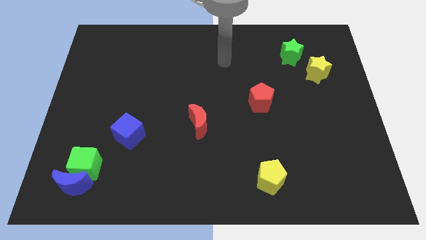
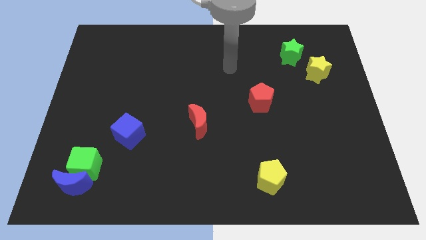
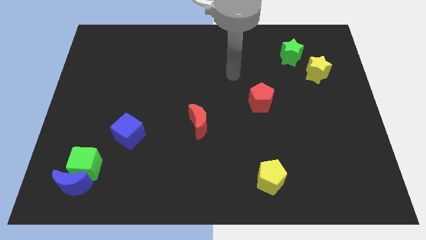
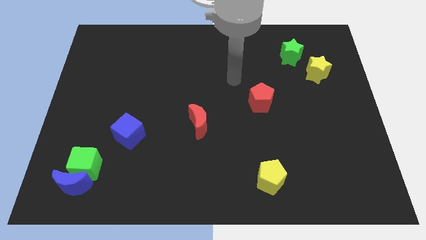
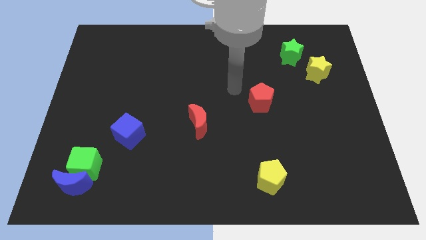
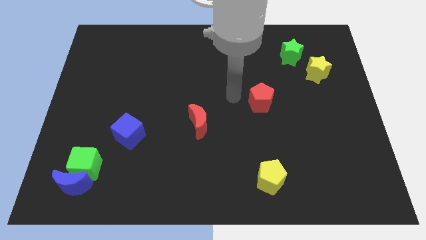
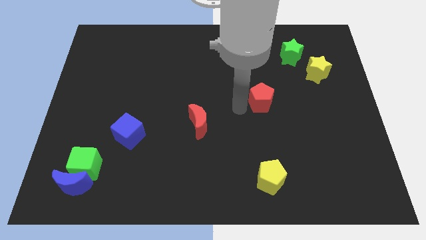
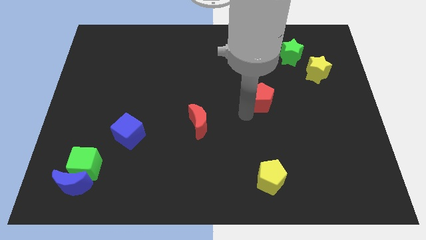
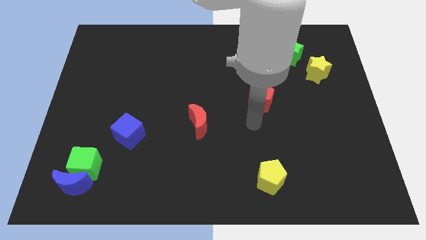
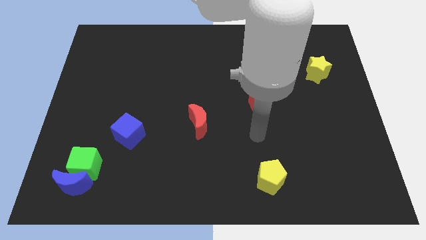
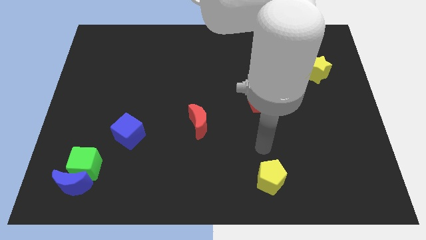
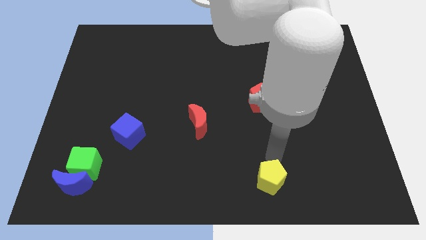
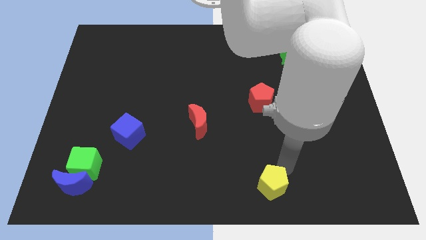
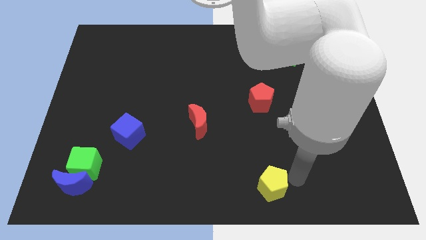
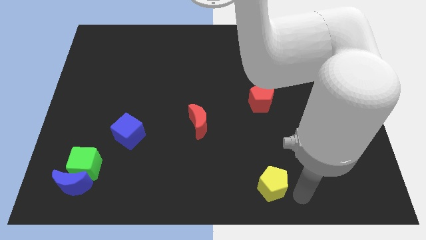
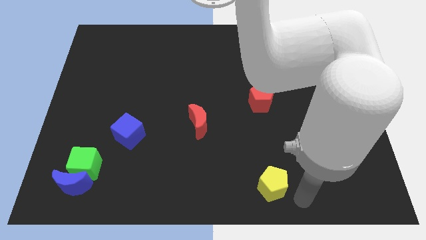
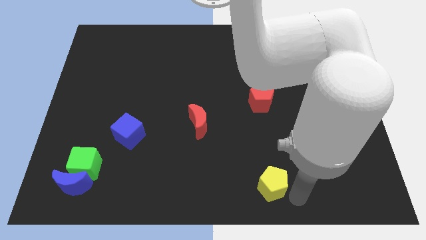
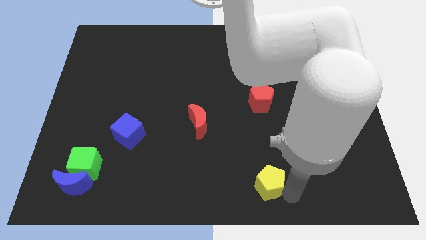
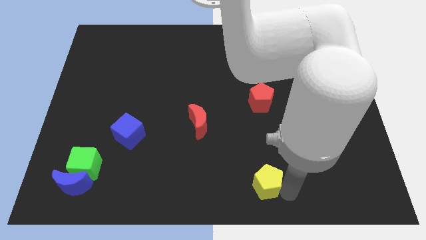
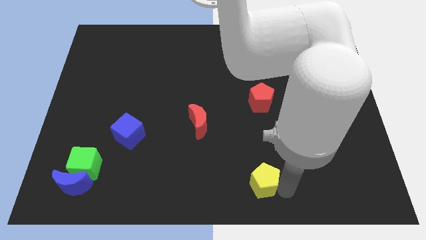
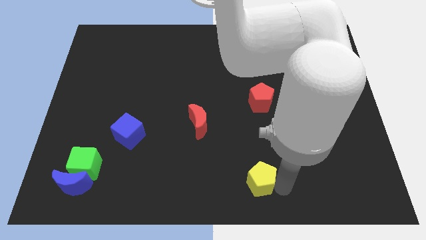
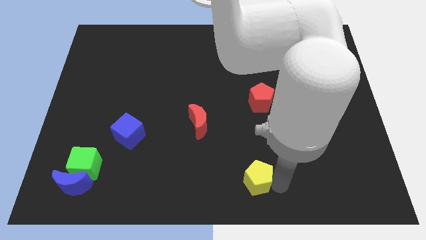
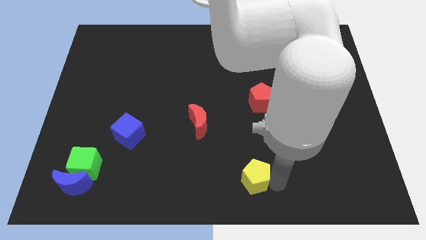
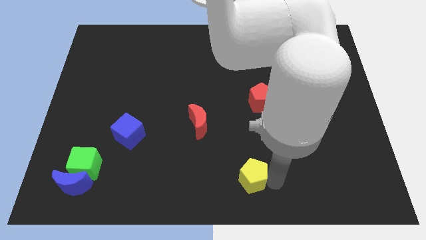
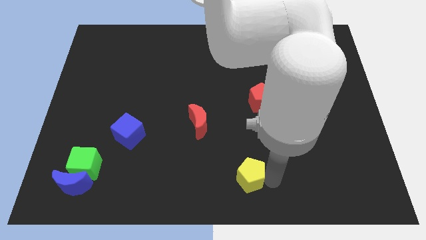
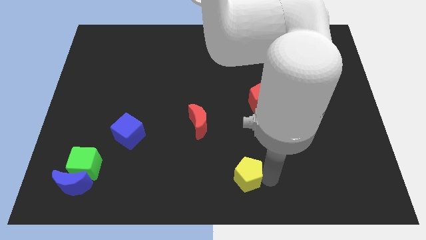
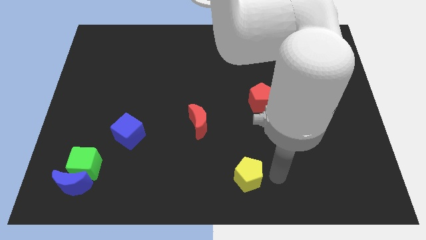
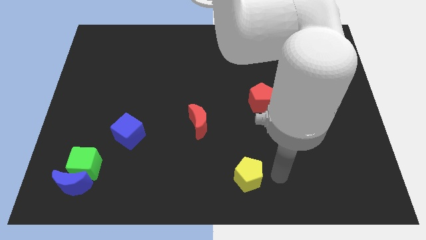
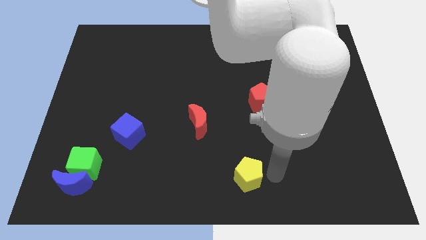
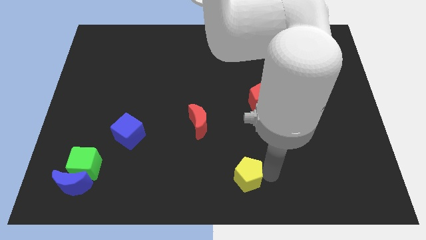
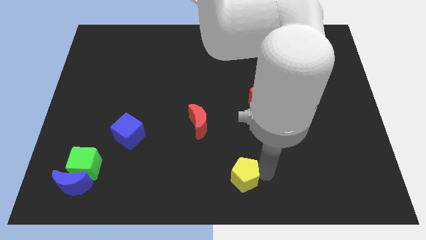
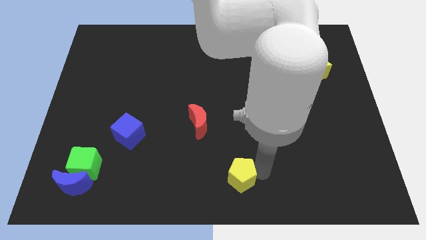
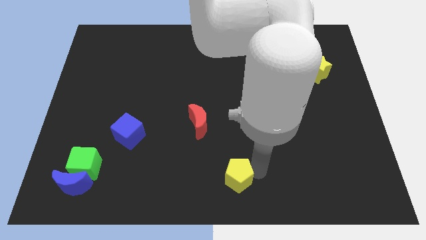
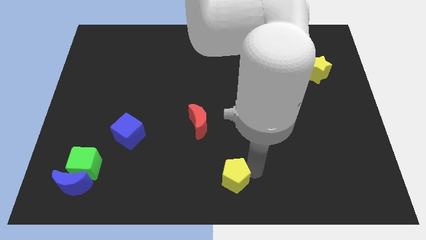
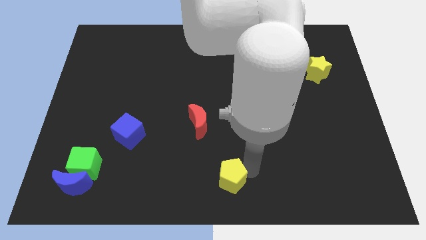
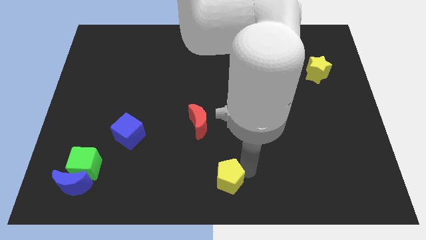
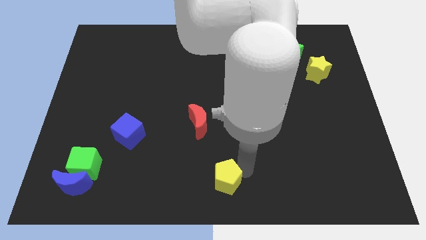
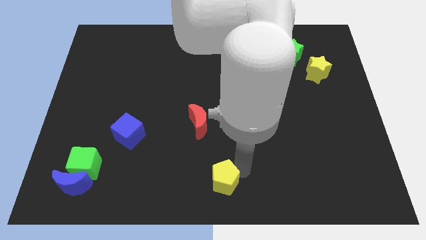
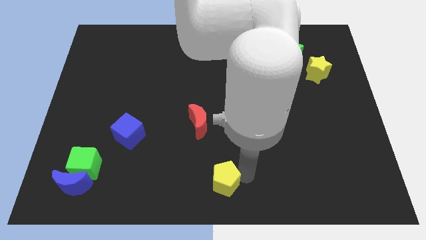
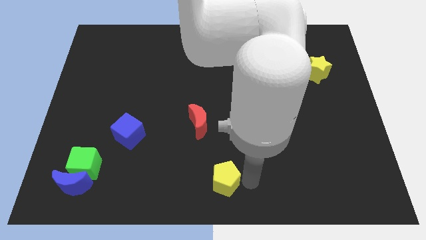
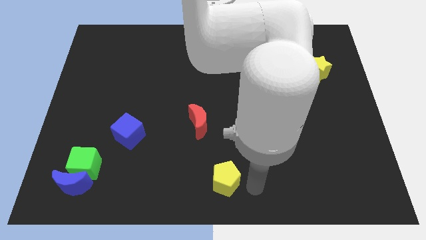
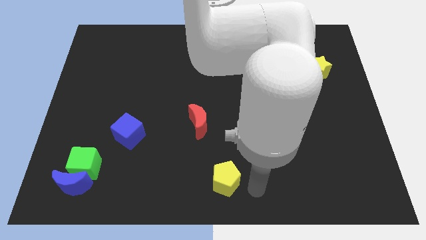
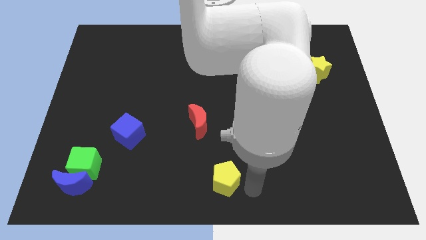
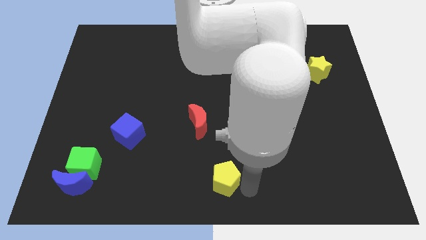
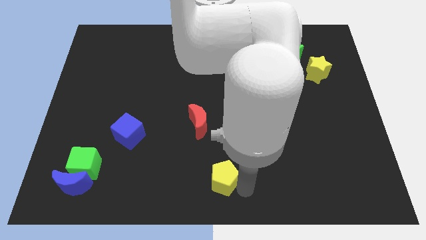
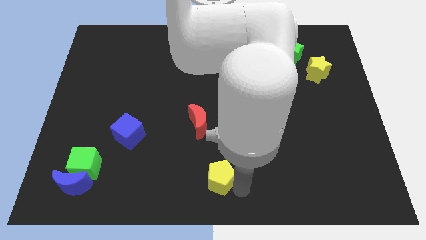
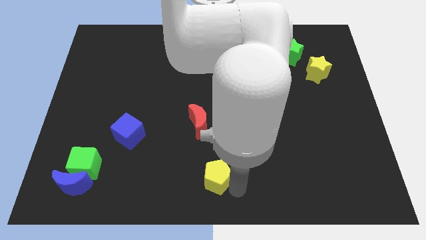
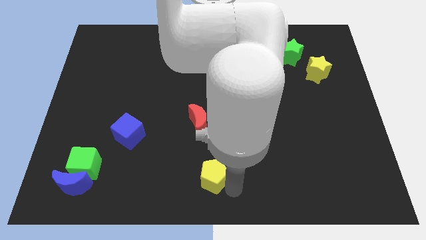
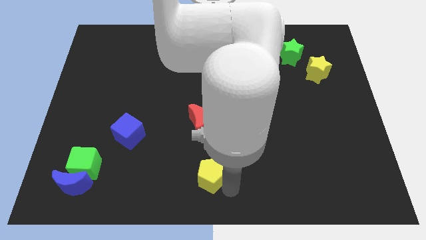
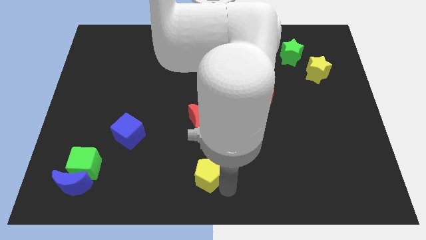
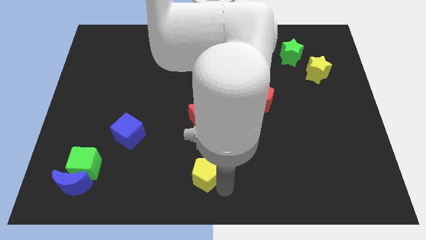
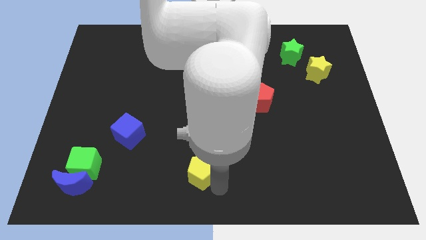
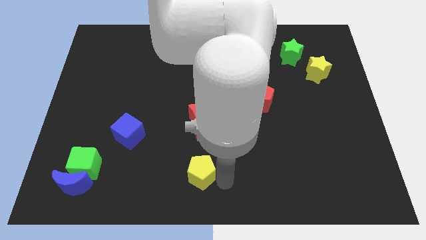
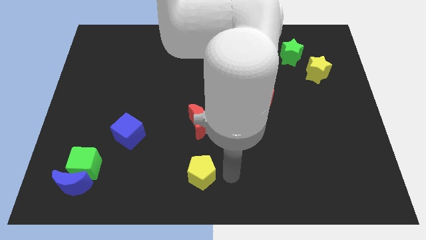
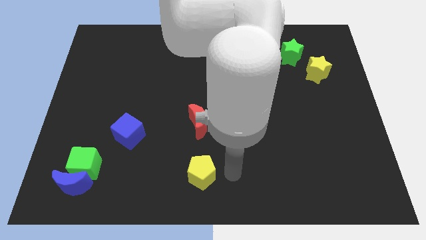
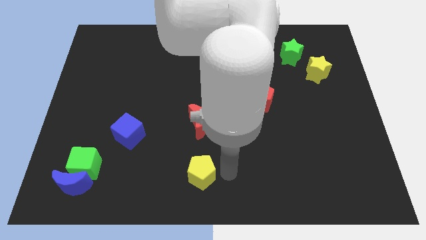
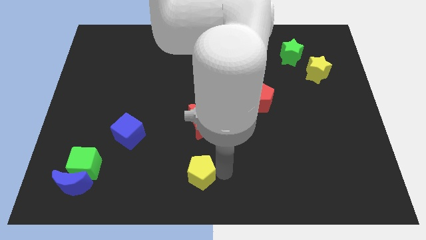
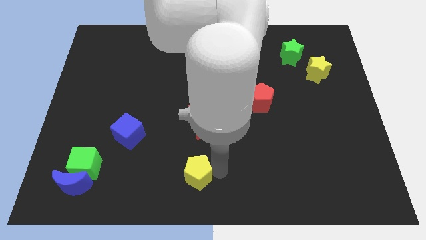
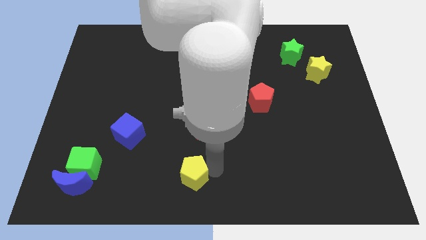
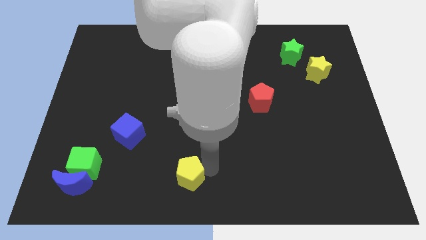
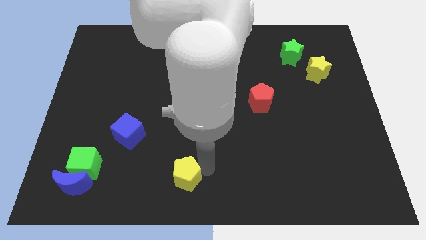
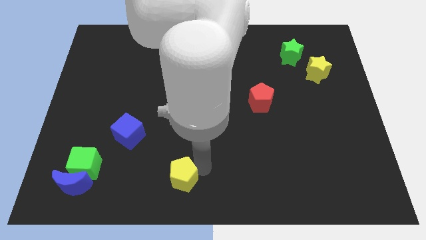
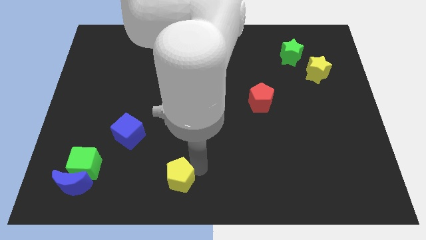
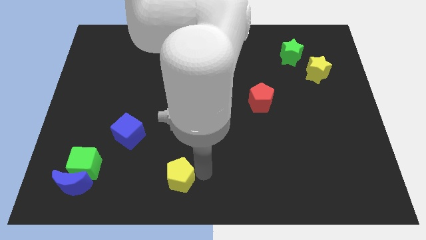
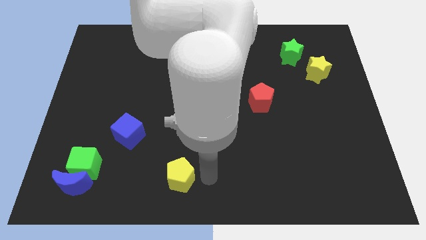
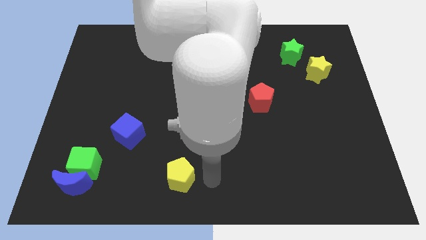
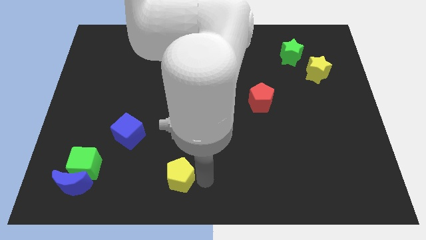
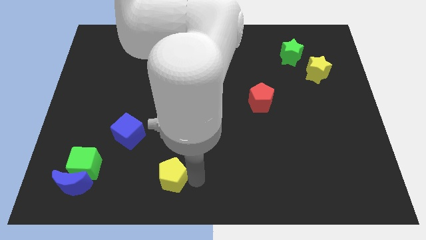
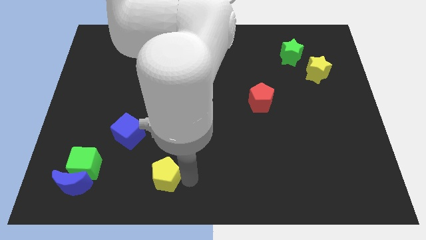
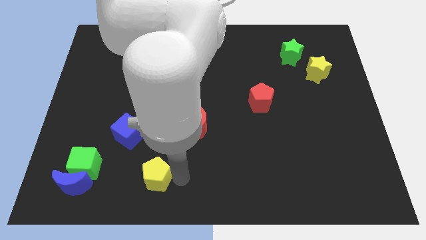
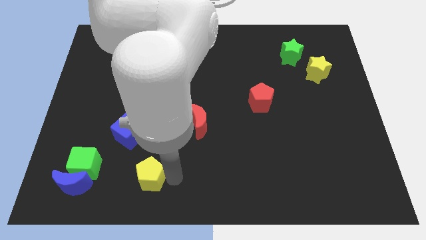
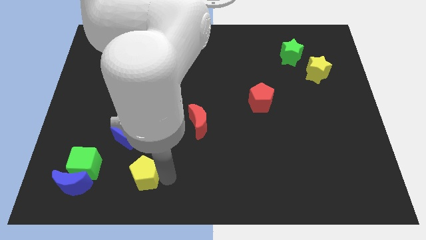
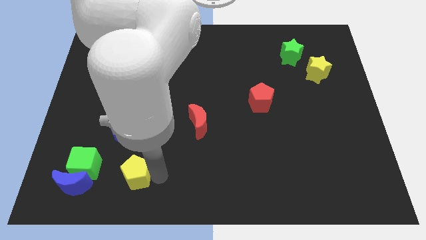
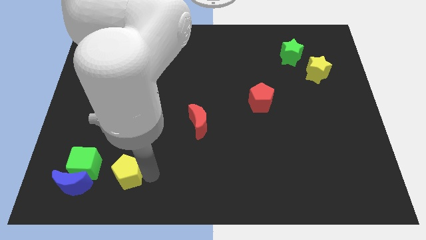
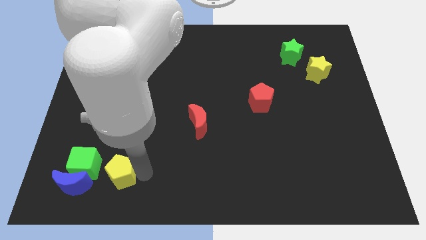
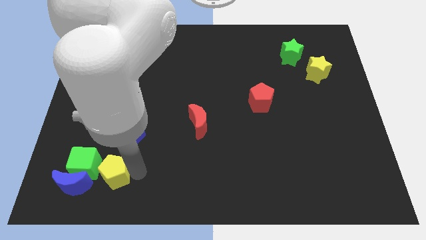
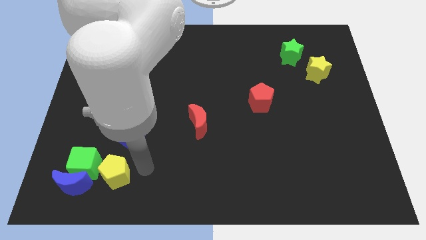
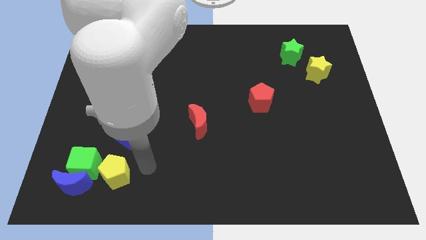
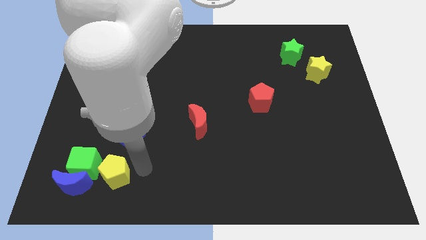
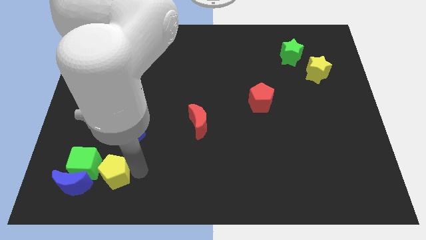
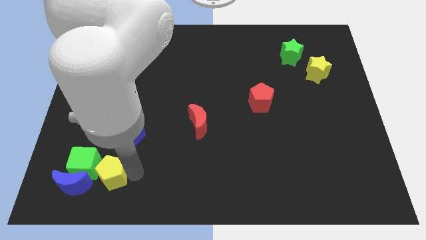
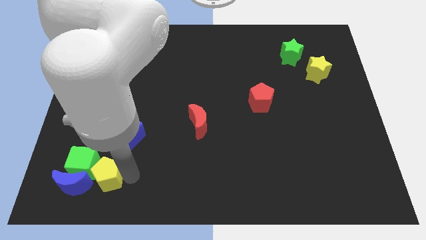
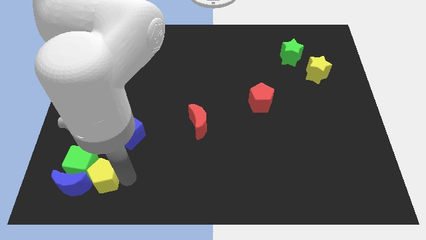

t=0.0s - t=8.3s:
push the yellow pentagon close to the blue moon
